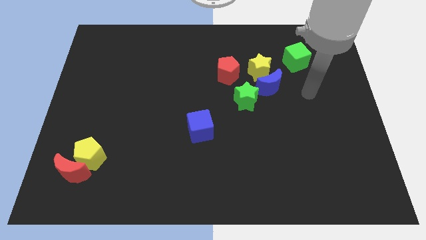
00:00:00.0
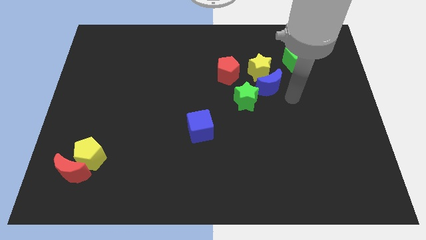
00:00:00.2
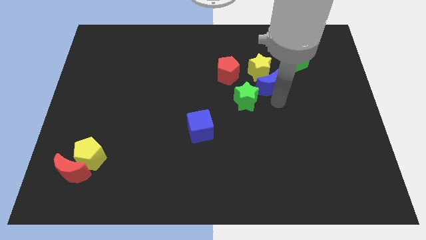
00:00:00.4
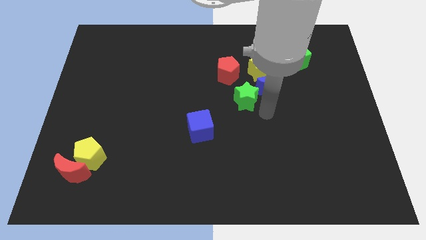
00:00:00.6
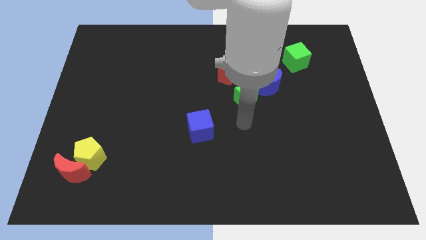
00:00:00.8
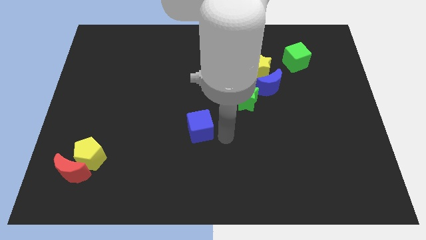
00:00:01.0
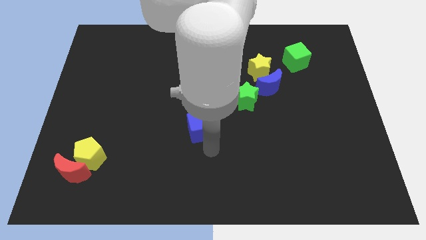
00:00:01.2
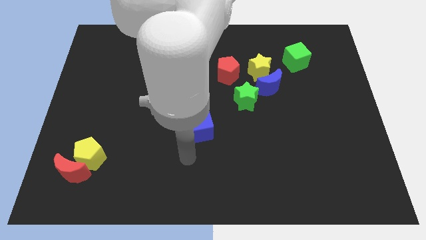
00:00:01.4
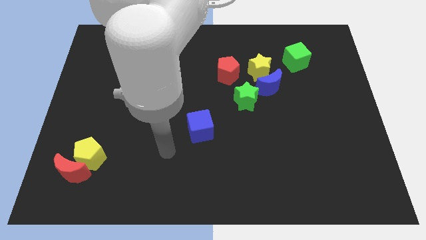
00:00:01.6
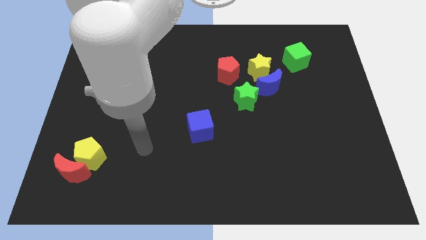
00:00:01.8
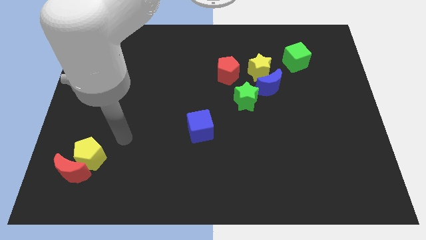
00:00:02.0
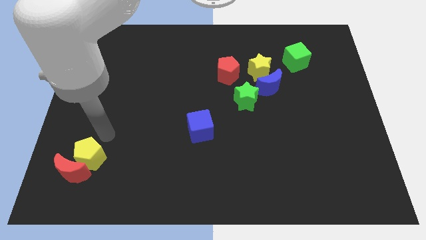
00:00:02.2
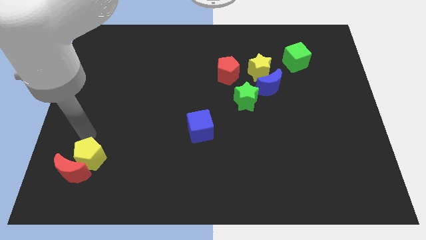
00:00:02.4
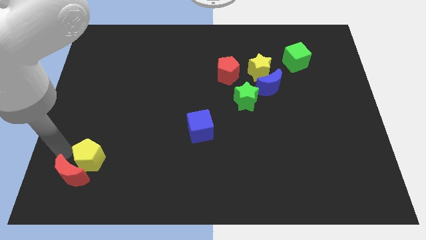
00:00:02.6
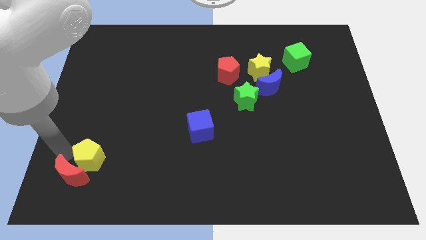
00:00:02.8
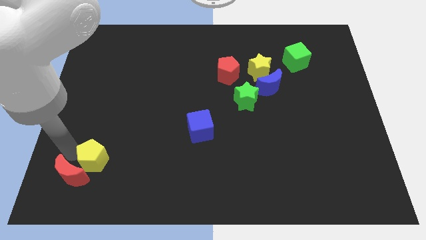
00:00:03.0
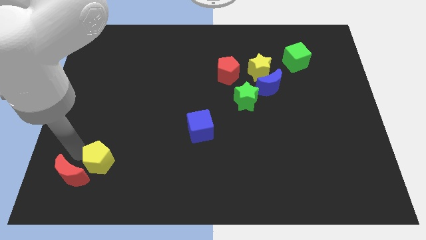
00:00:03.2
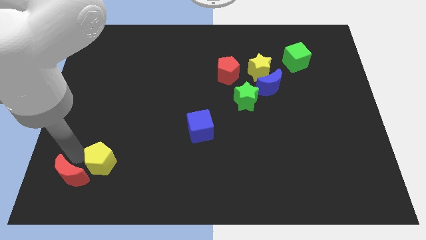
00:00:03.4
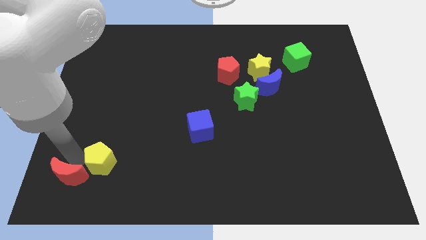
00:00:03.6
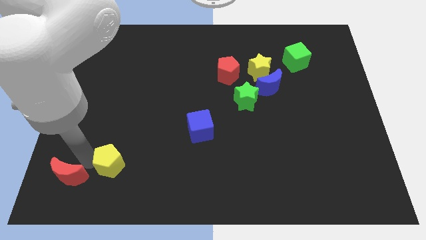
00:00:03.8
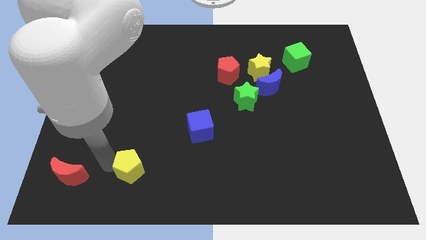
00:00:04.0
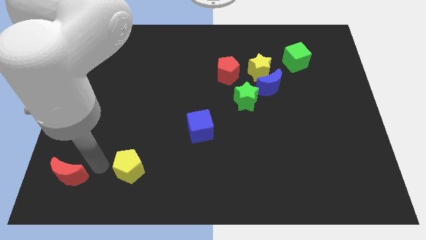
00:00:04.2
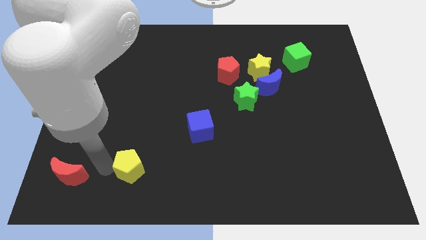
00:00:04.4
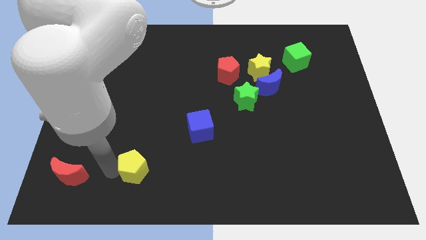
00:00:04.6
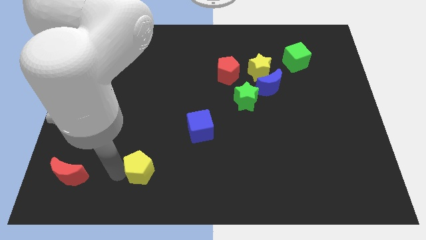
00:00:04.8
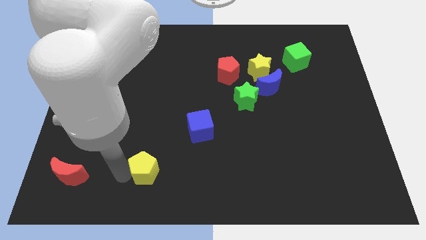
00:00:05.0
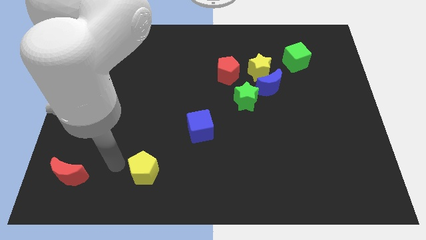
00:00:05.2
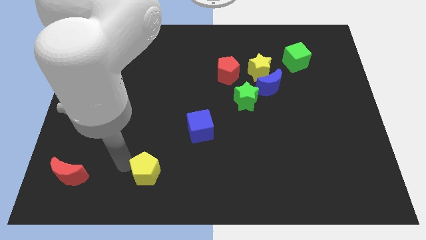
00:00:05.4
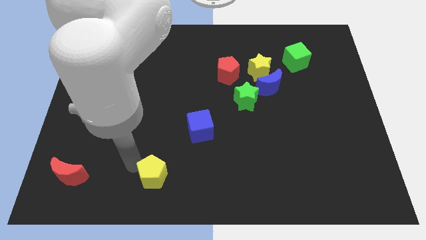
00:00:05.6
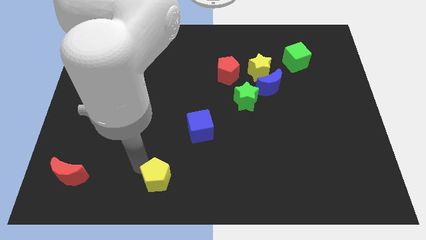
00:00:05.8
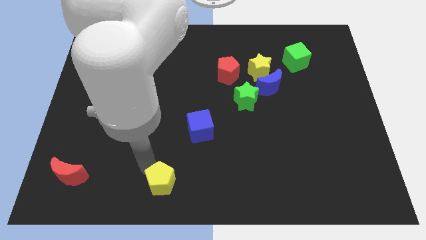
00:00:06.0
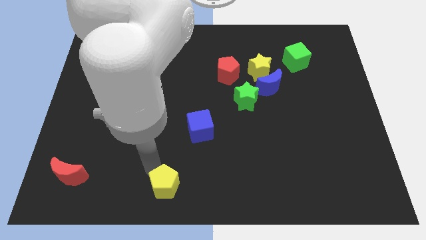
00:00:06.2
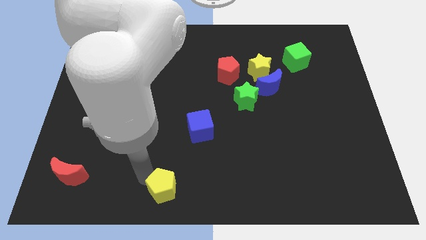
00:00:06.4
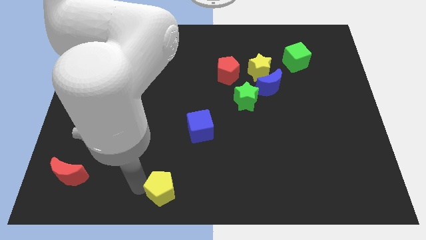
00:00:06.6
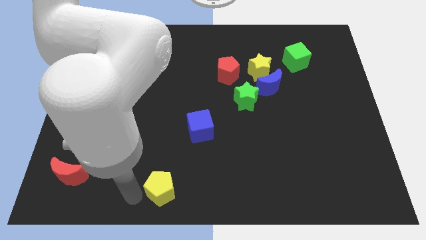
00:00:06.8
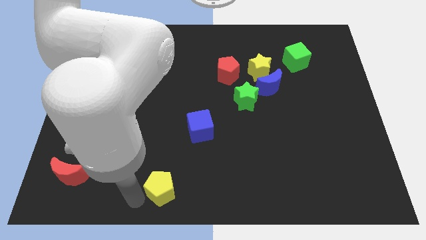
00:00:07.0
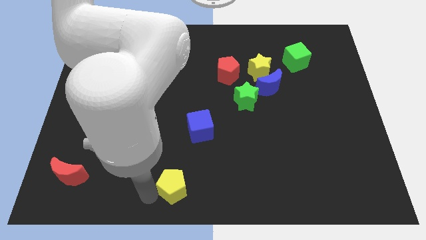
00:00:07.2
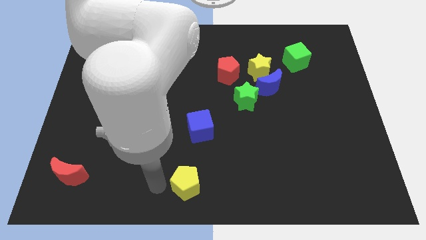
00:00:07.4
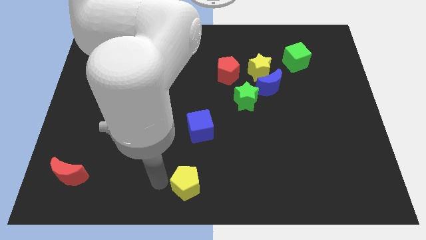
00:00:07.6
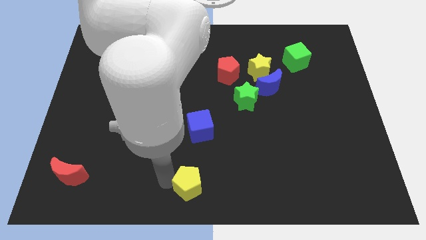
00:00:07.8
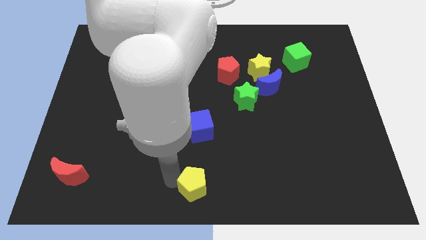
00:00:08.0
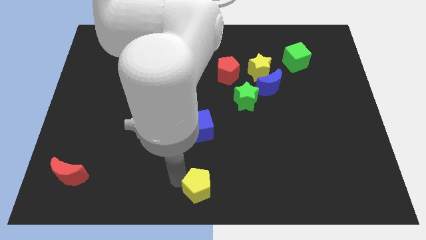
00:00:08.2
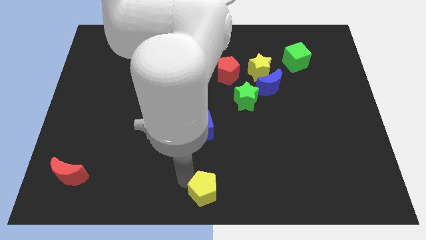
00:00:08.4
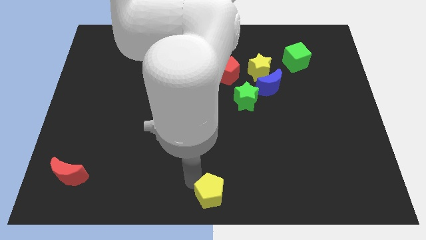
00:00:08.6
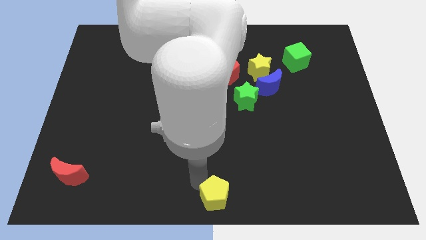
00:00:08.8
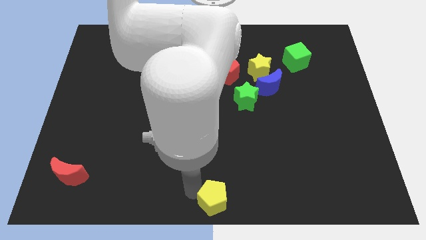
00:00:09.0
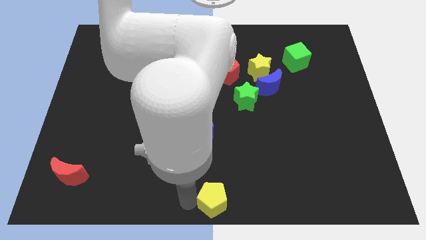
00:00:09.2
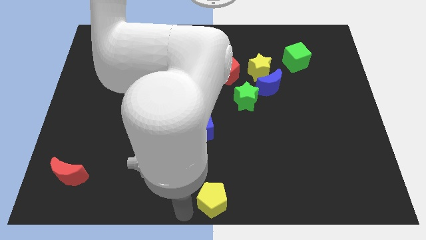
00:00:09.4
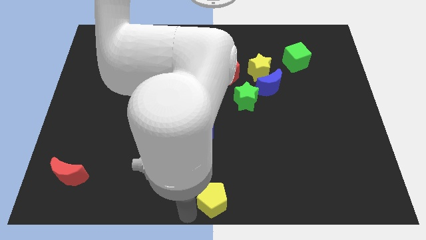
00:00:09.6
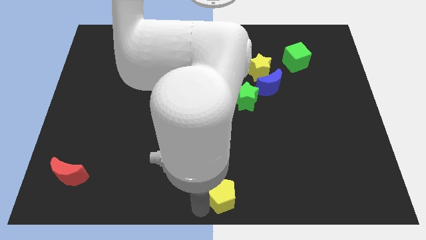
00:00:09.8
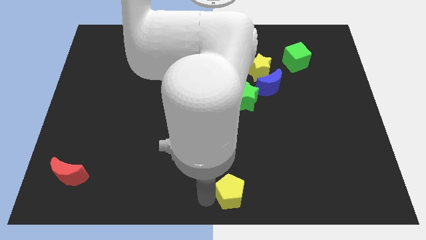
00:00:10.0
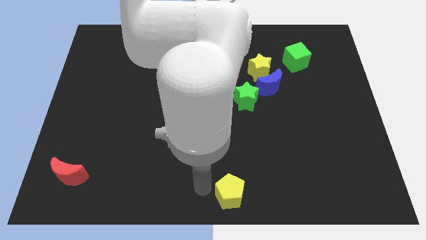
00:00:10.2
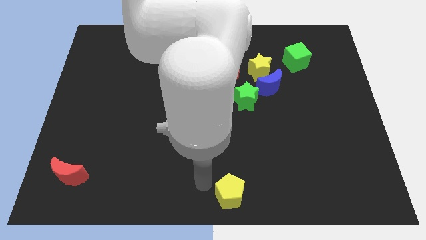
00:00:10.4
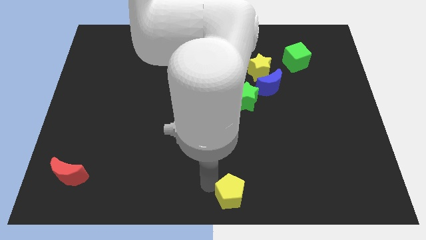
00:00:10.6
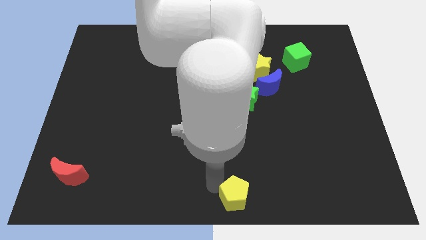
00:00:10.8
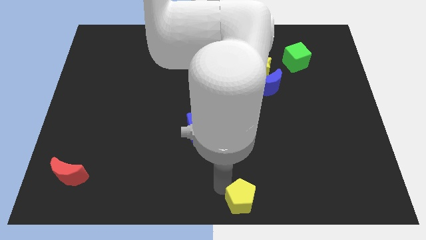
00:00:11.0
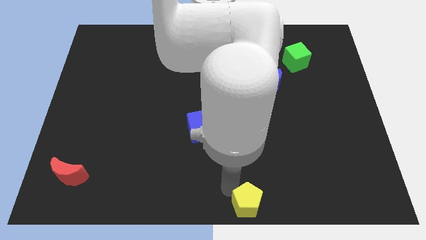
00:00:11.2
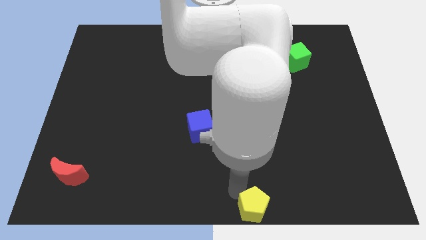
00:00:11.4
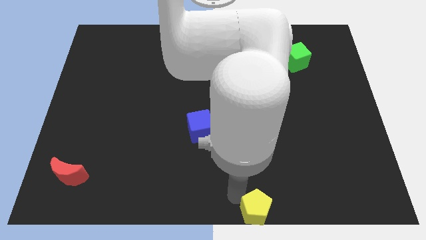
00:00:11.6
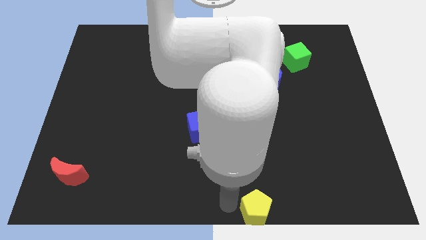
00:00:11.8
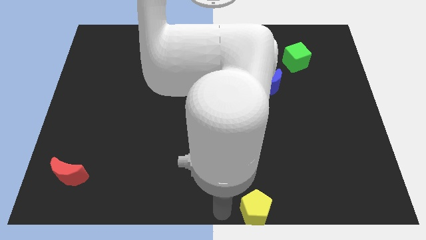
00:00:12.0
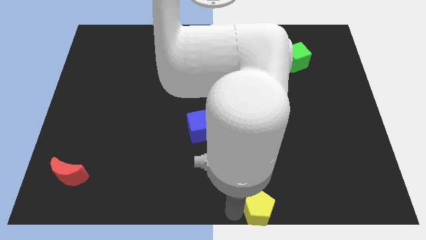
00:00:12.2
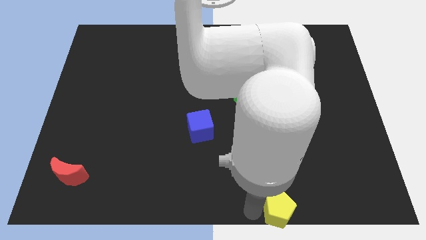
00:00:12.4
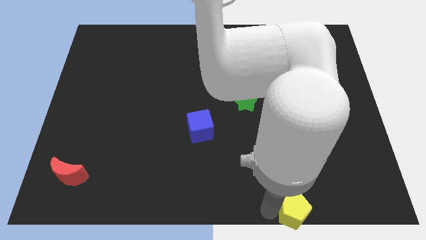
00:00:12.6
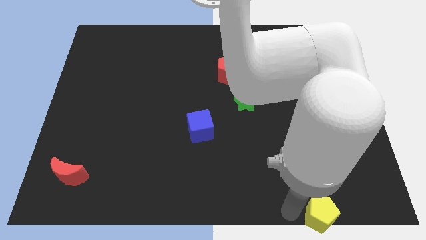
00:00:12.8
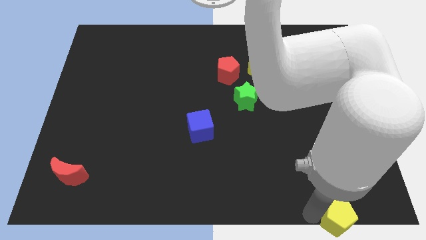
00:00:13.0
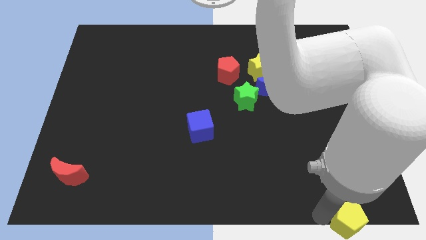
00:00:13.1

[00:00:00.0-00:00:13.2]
move the yellow pentagon to the bottom right of the board

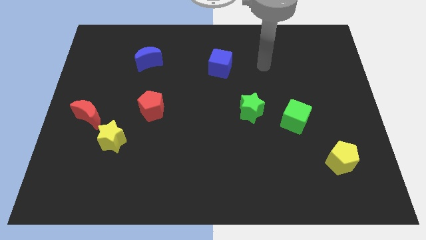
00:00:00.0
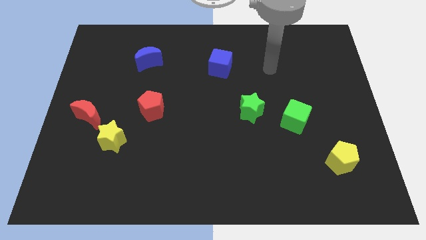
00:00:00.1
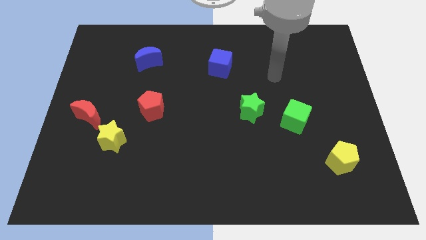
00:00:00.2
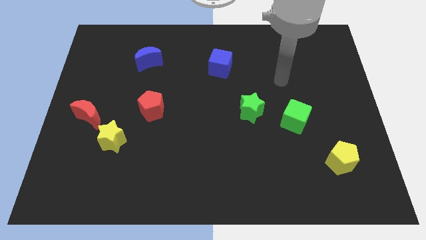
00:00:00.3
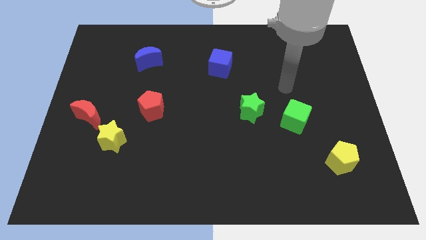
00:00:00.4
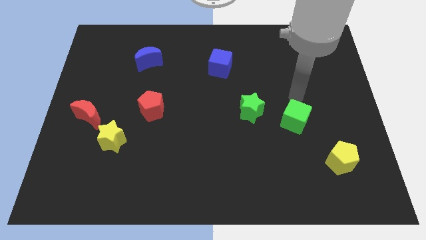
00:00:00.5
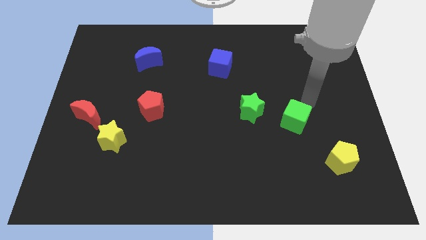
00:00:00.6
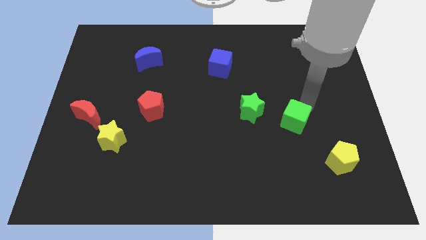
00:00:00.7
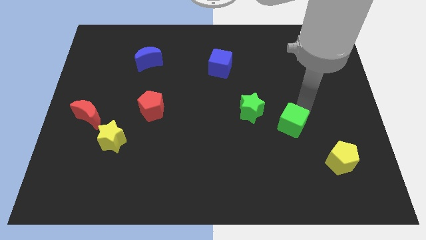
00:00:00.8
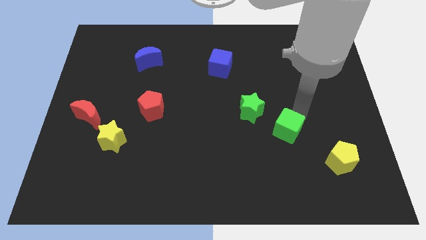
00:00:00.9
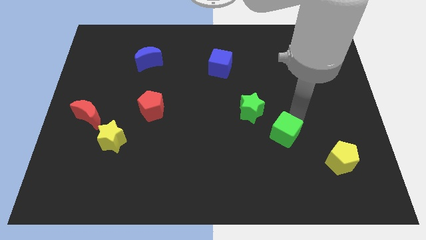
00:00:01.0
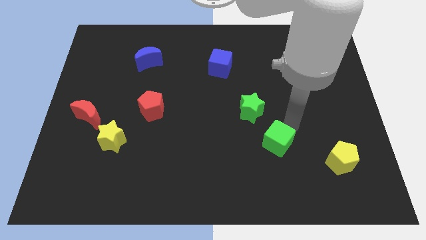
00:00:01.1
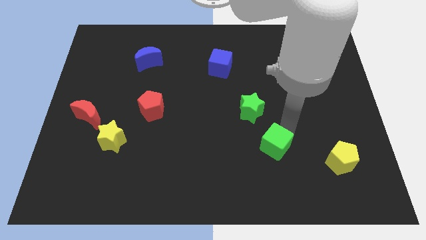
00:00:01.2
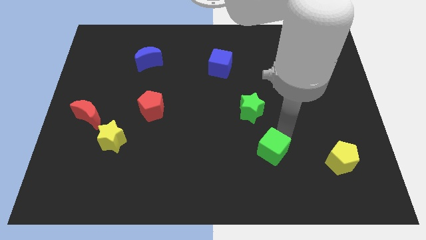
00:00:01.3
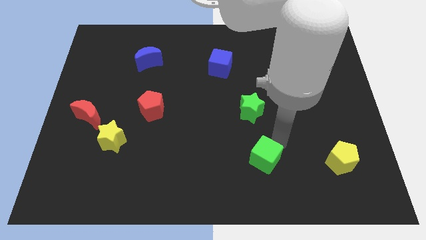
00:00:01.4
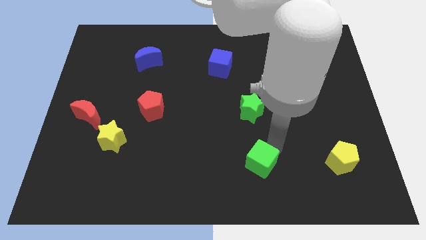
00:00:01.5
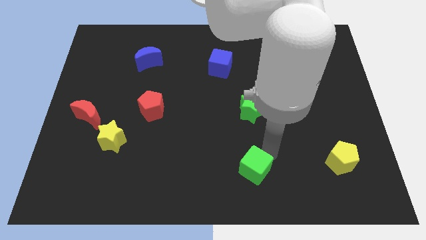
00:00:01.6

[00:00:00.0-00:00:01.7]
slide the green cube to the bottom
